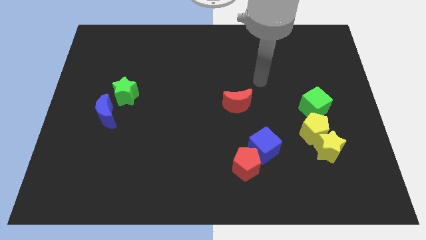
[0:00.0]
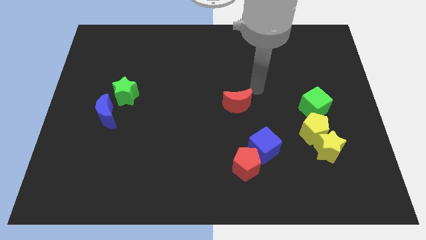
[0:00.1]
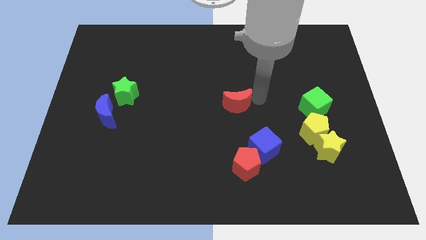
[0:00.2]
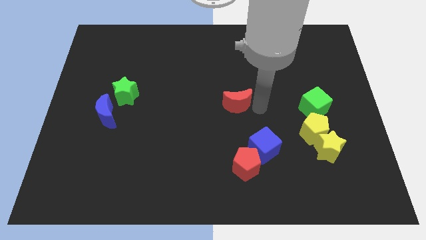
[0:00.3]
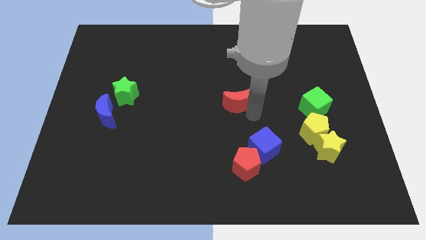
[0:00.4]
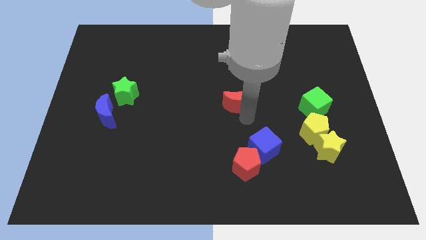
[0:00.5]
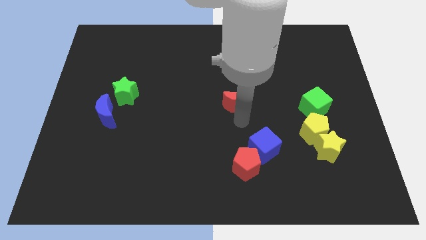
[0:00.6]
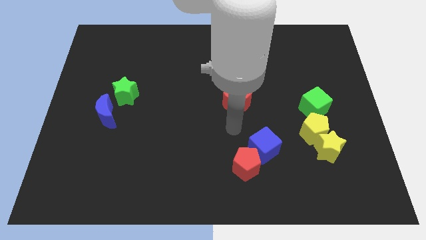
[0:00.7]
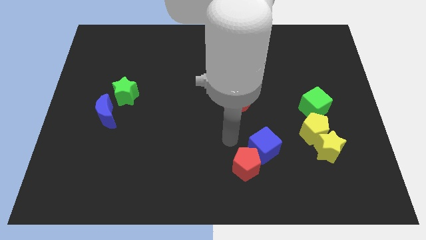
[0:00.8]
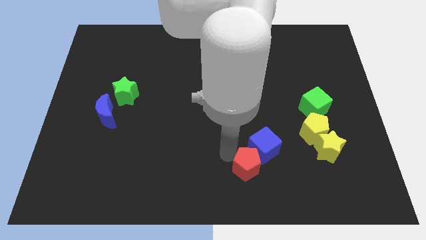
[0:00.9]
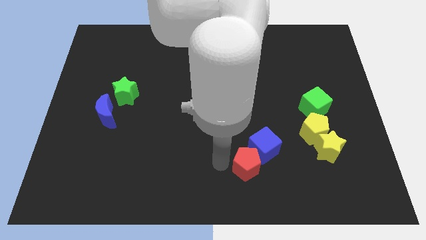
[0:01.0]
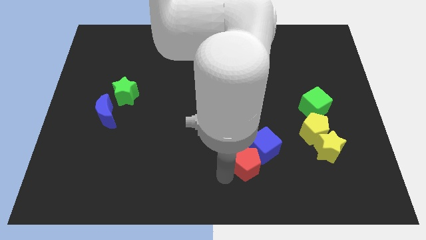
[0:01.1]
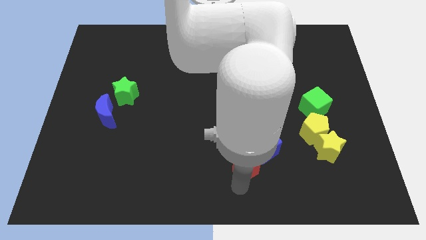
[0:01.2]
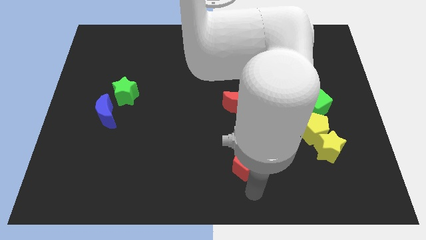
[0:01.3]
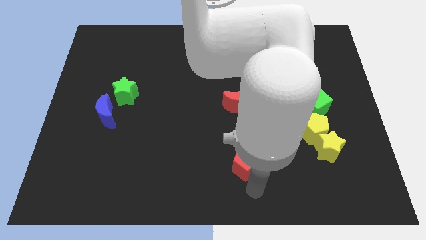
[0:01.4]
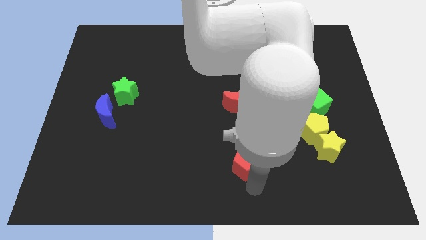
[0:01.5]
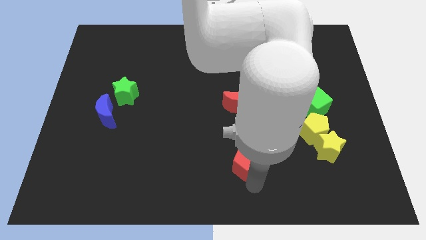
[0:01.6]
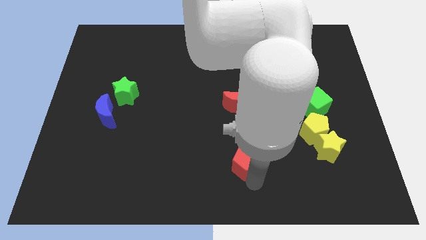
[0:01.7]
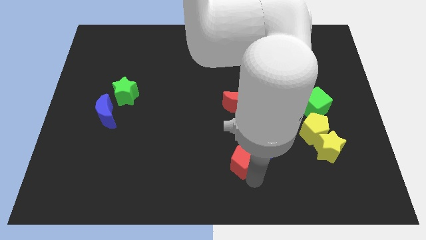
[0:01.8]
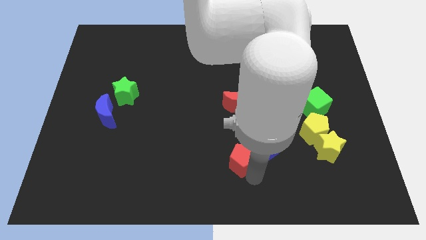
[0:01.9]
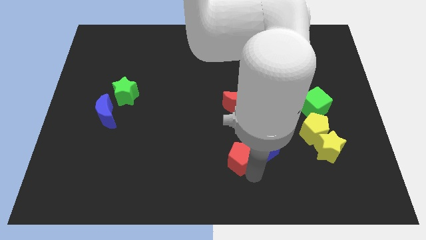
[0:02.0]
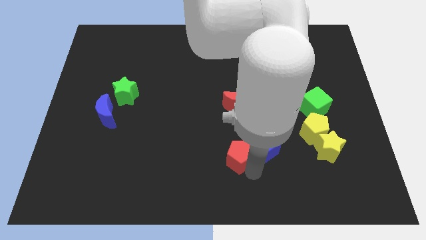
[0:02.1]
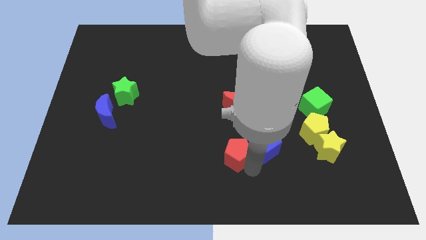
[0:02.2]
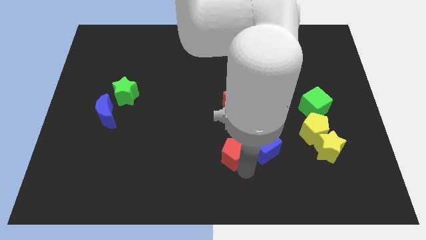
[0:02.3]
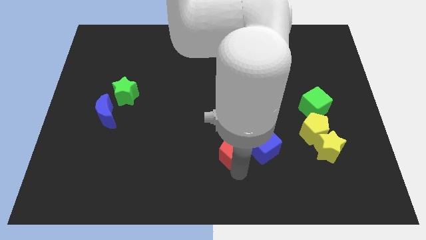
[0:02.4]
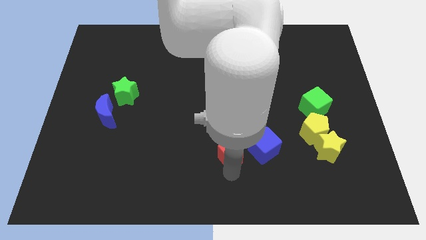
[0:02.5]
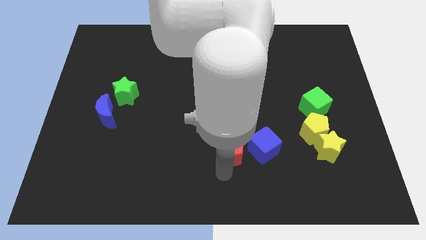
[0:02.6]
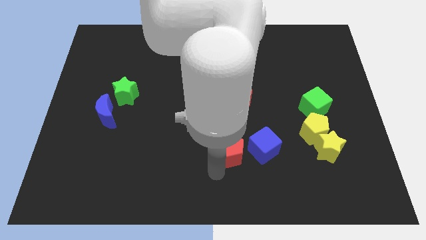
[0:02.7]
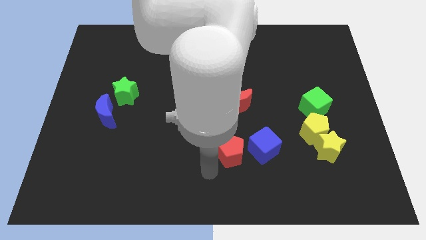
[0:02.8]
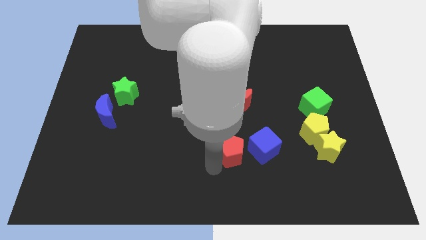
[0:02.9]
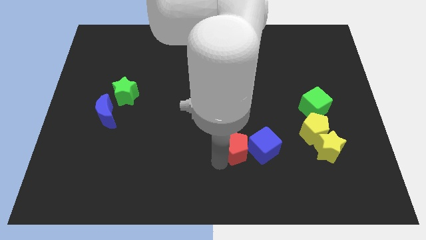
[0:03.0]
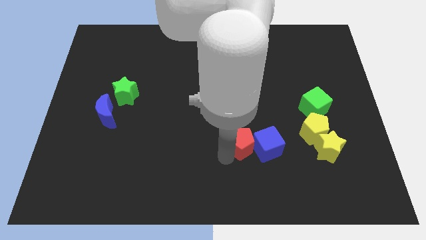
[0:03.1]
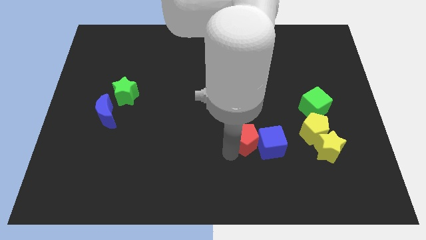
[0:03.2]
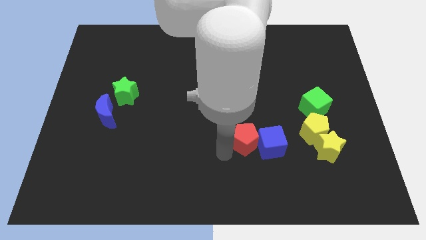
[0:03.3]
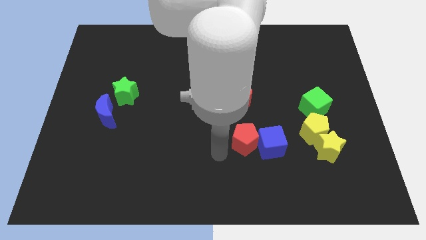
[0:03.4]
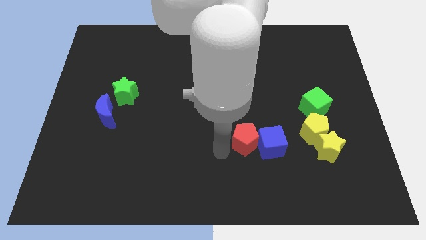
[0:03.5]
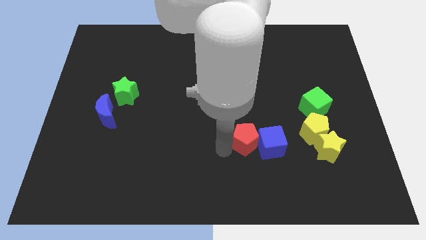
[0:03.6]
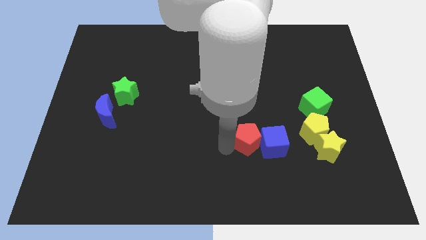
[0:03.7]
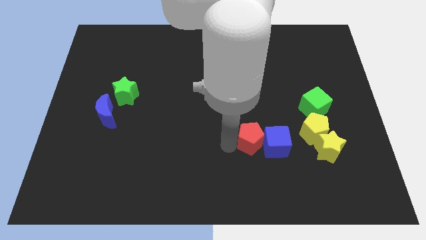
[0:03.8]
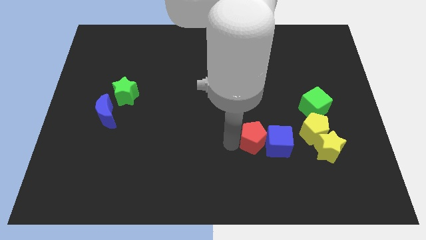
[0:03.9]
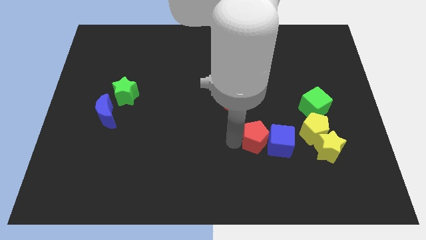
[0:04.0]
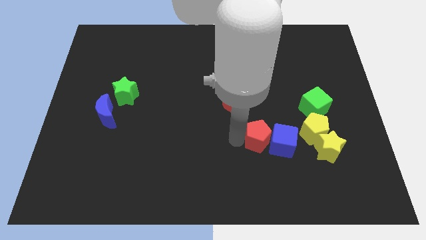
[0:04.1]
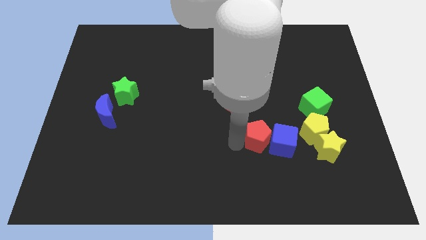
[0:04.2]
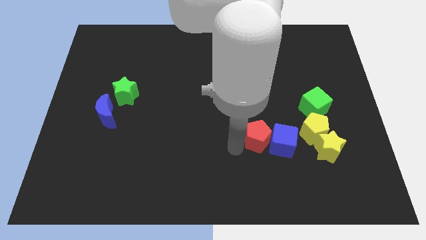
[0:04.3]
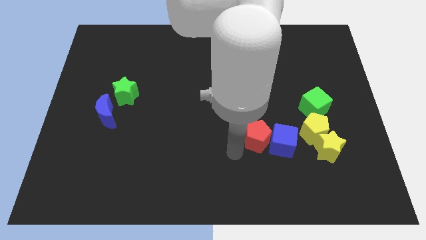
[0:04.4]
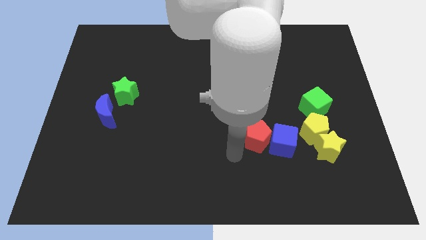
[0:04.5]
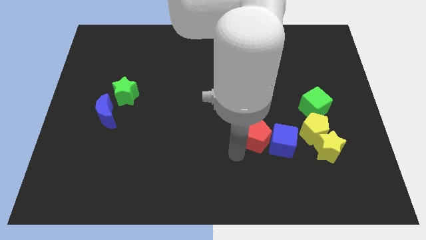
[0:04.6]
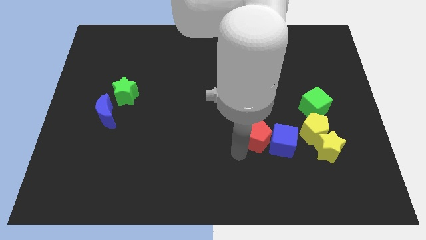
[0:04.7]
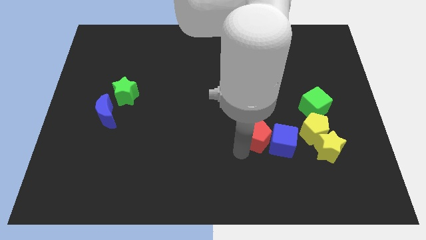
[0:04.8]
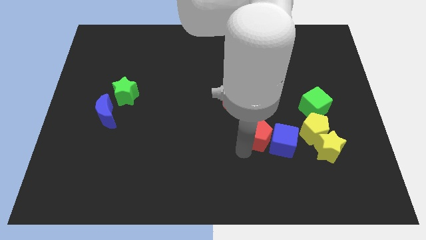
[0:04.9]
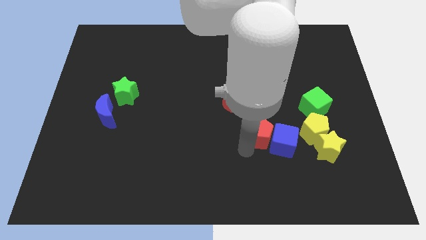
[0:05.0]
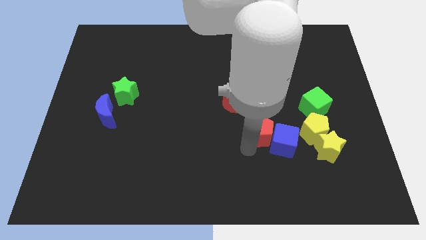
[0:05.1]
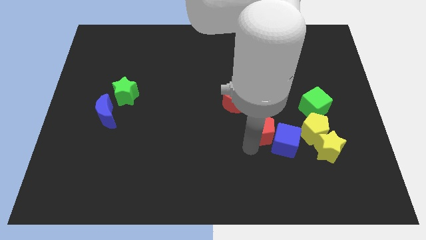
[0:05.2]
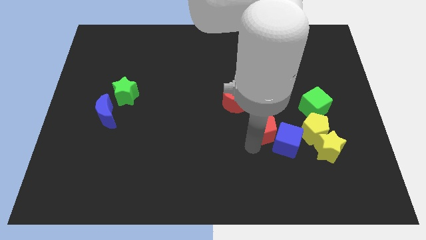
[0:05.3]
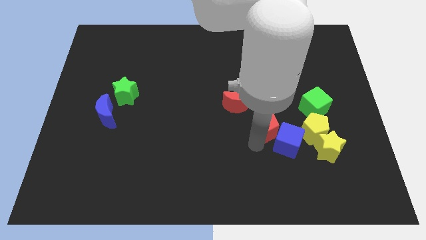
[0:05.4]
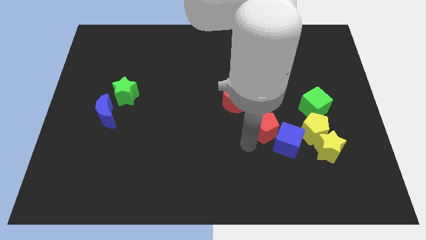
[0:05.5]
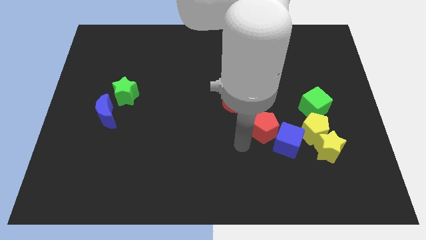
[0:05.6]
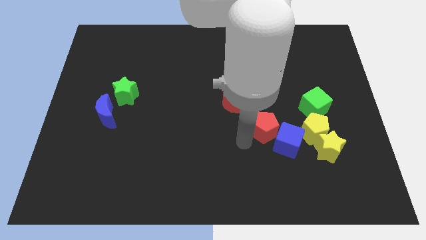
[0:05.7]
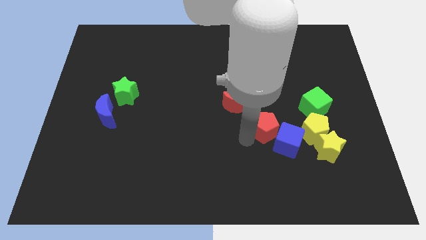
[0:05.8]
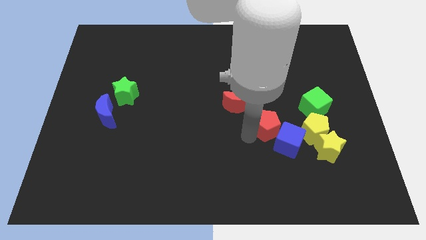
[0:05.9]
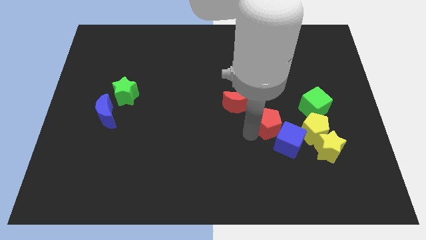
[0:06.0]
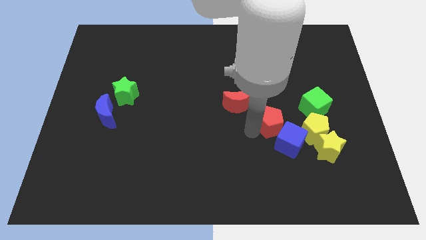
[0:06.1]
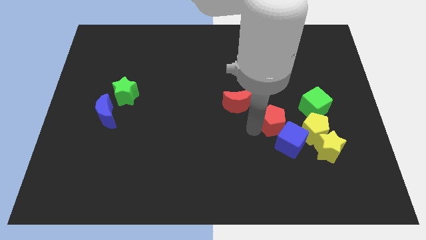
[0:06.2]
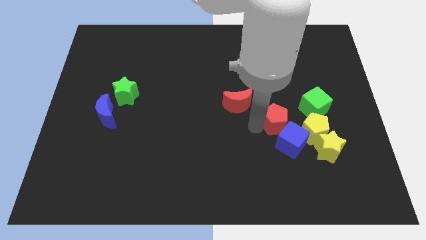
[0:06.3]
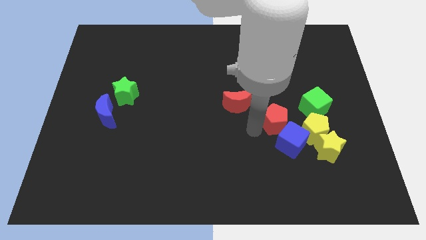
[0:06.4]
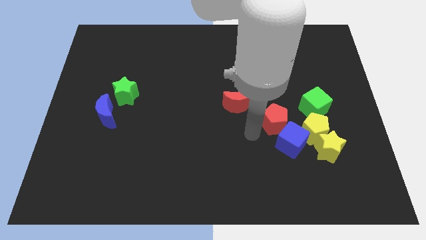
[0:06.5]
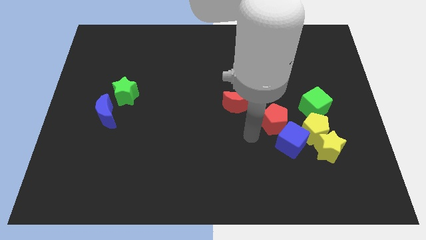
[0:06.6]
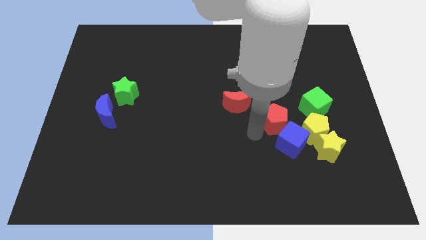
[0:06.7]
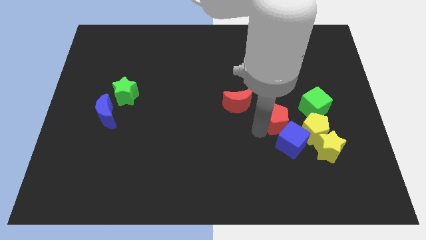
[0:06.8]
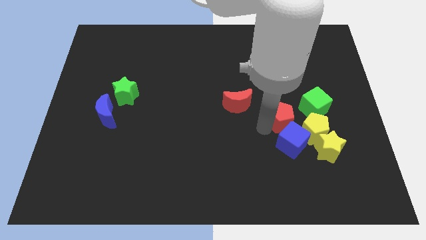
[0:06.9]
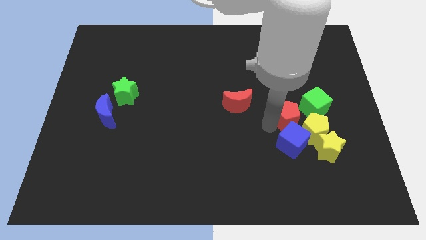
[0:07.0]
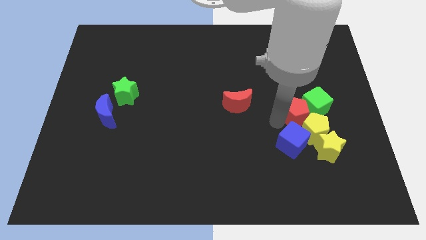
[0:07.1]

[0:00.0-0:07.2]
slide the red pentagon to the green cube
